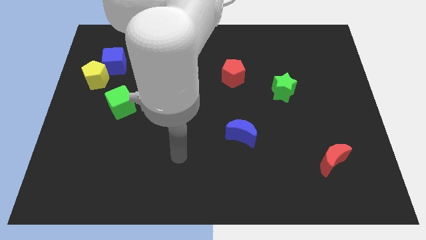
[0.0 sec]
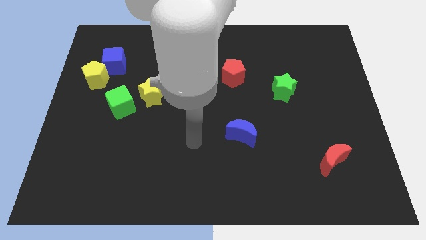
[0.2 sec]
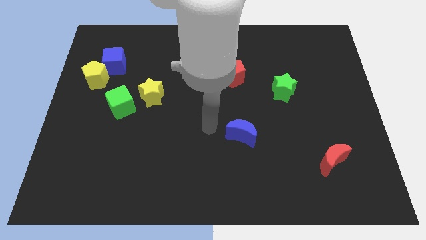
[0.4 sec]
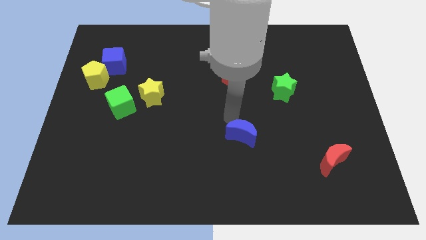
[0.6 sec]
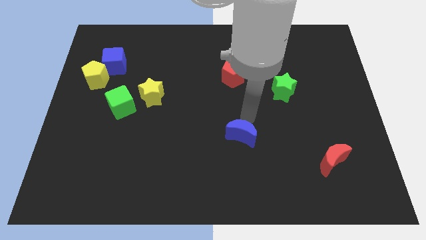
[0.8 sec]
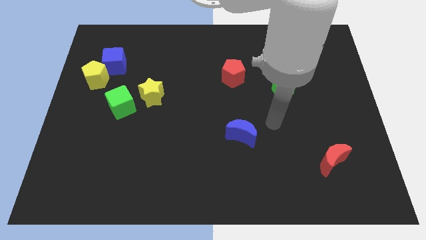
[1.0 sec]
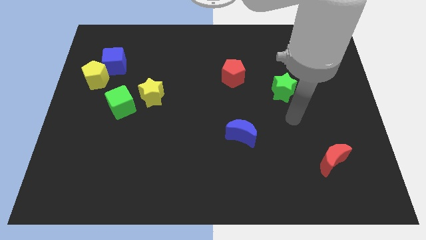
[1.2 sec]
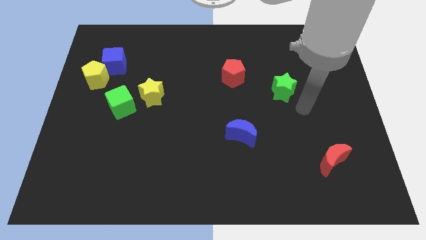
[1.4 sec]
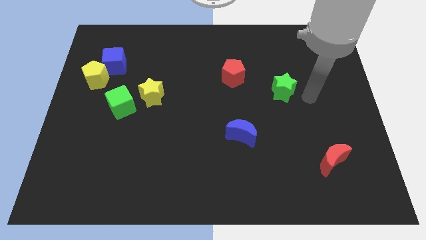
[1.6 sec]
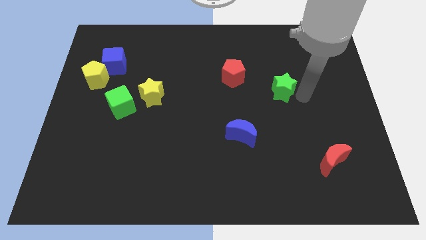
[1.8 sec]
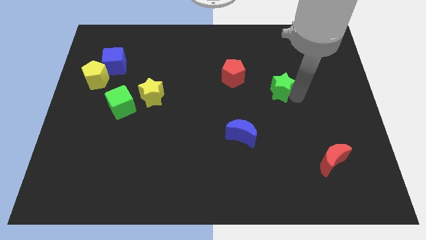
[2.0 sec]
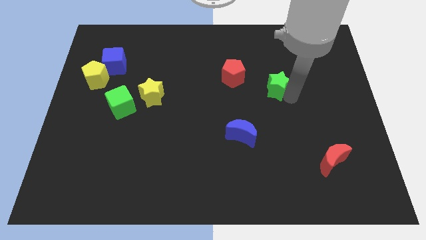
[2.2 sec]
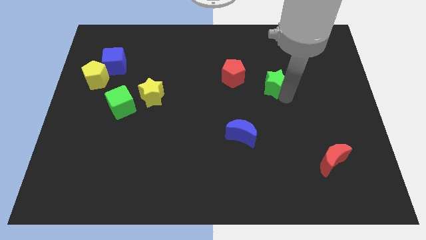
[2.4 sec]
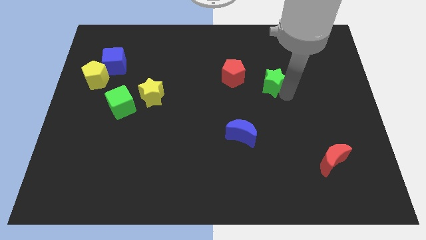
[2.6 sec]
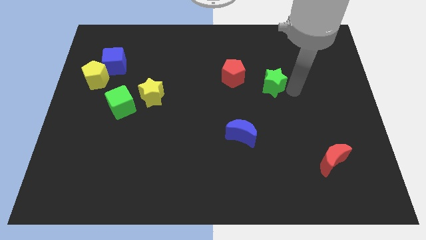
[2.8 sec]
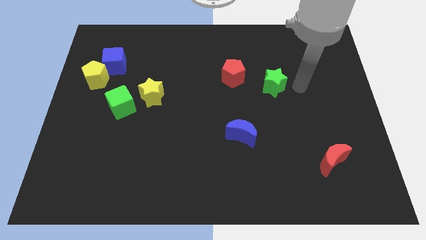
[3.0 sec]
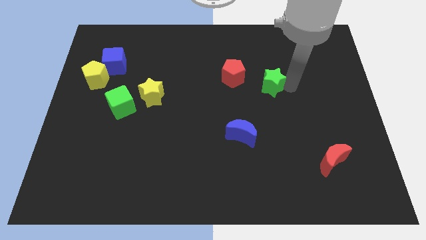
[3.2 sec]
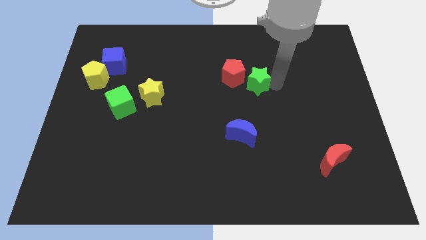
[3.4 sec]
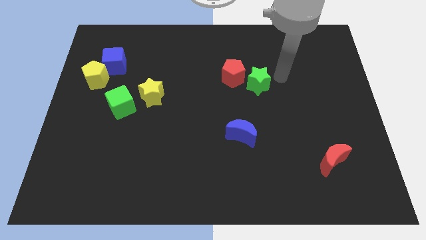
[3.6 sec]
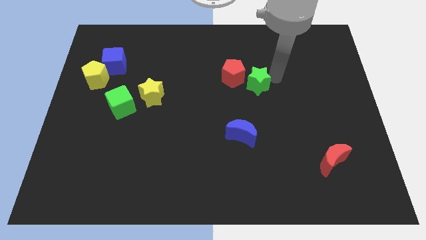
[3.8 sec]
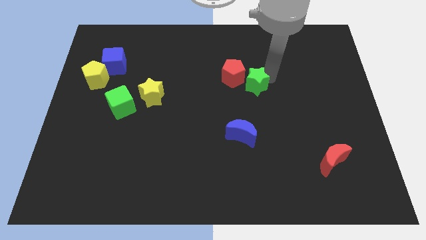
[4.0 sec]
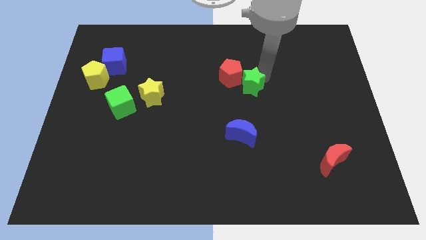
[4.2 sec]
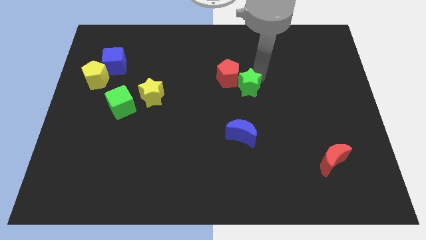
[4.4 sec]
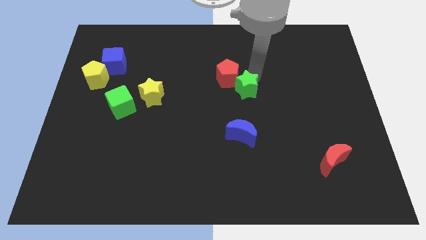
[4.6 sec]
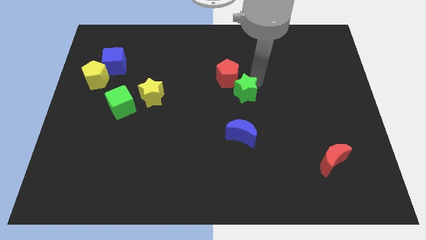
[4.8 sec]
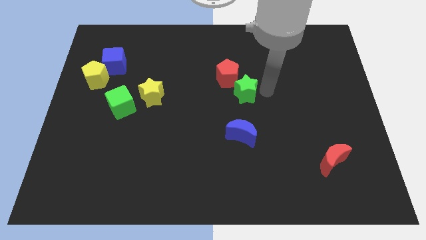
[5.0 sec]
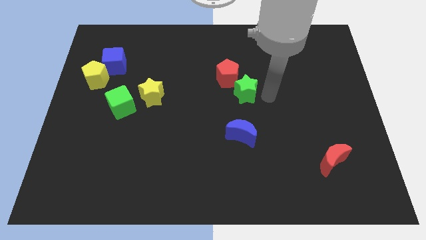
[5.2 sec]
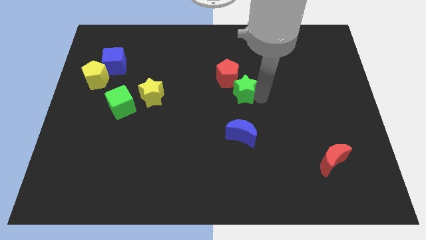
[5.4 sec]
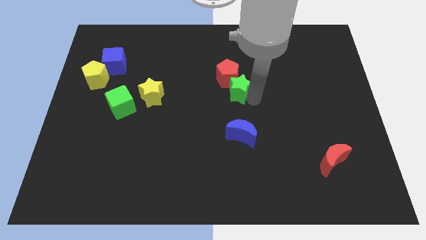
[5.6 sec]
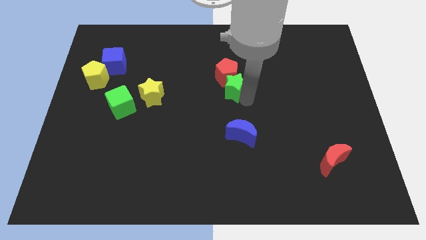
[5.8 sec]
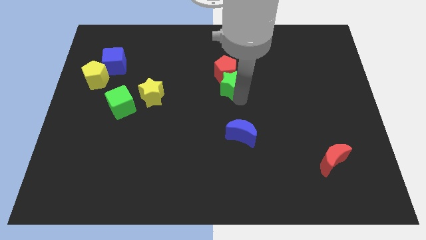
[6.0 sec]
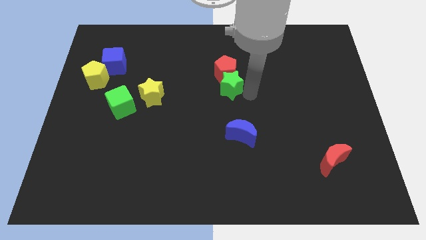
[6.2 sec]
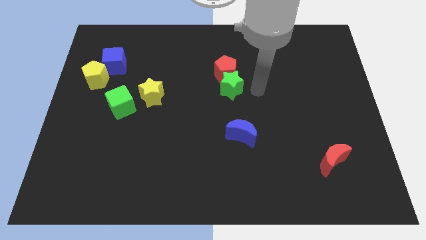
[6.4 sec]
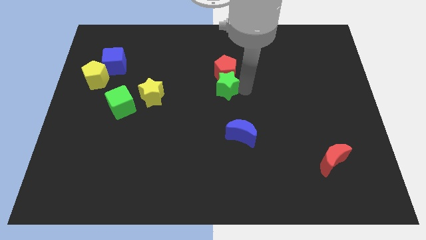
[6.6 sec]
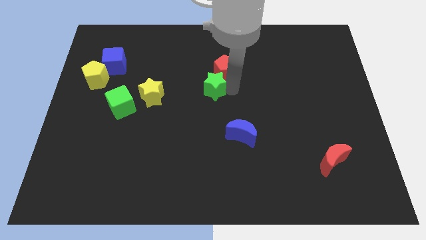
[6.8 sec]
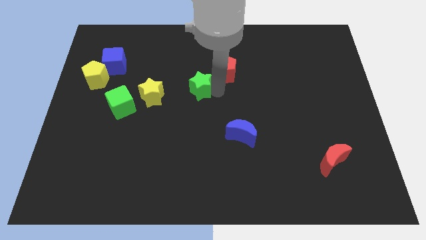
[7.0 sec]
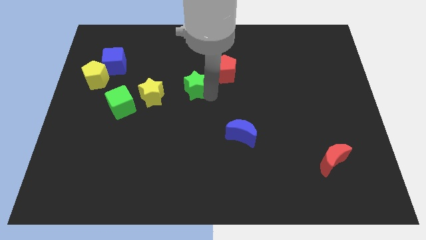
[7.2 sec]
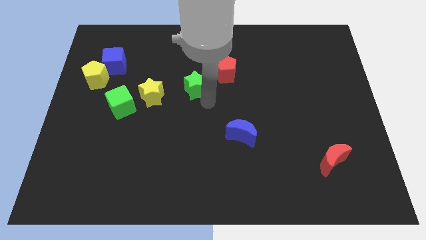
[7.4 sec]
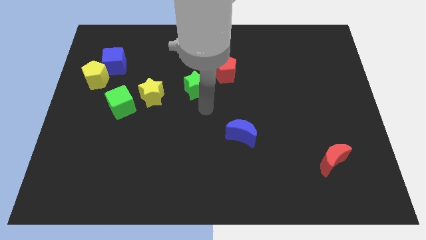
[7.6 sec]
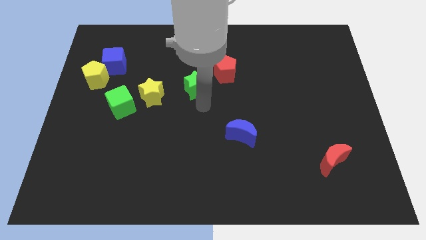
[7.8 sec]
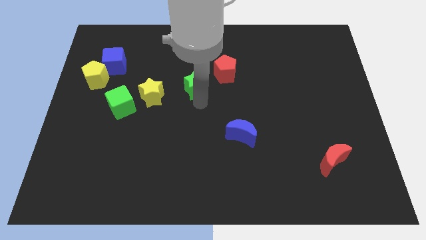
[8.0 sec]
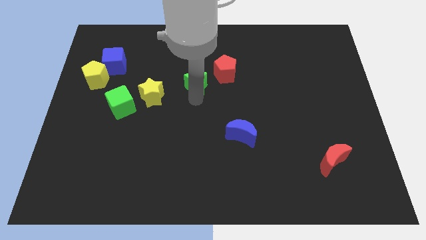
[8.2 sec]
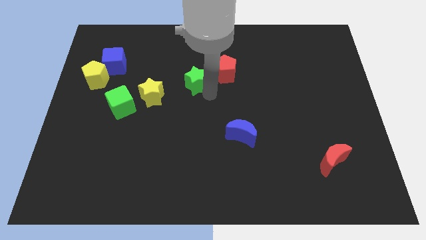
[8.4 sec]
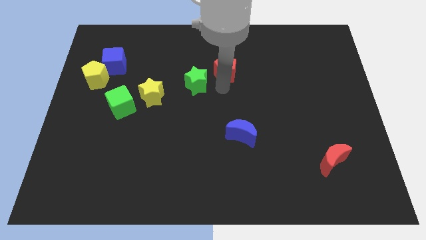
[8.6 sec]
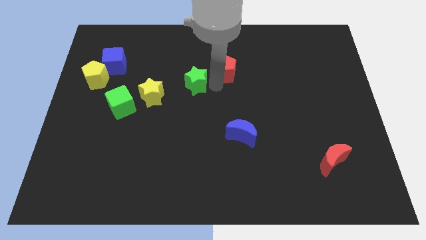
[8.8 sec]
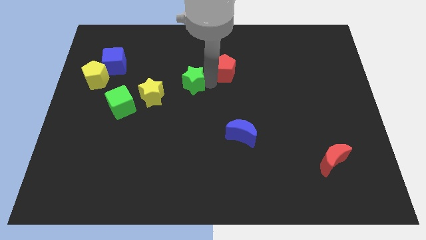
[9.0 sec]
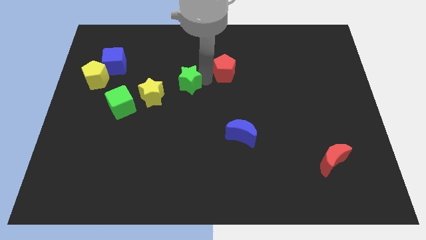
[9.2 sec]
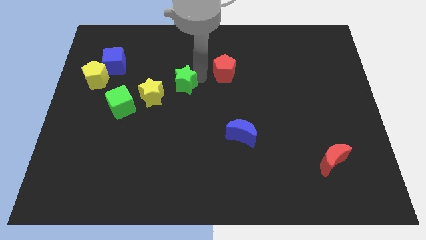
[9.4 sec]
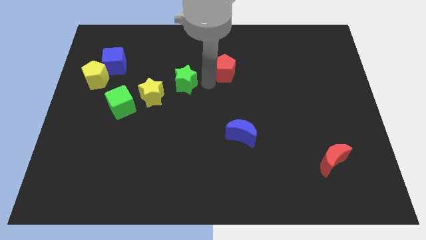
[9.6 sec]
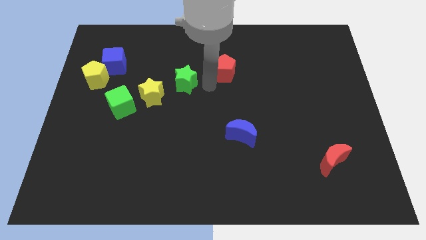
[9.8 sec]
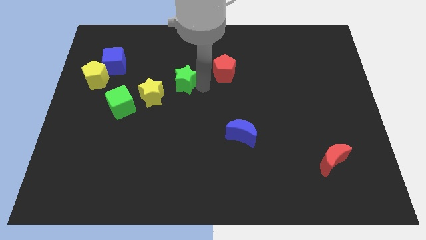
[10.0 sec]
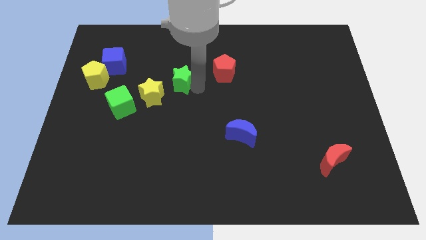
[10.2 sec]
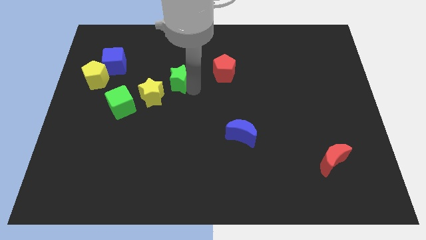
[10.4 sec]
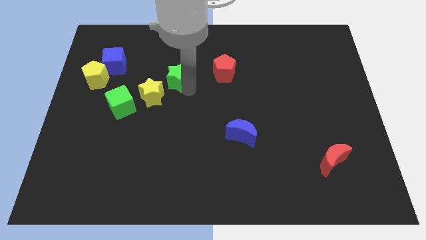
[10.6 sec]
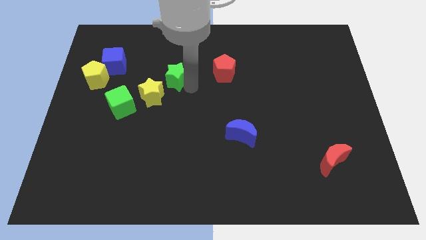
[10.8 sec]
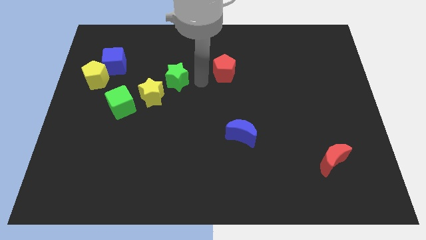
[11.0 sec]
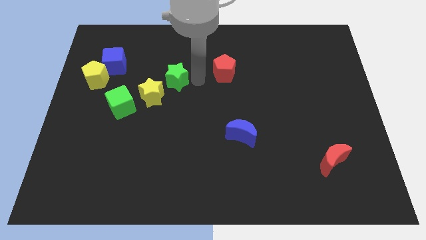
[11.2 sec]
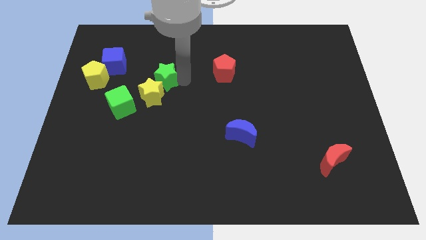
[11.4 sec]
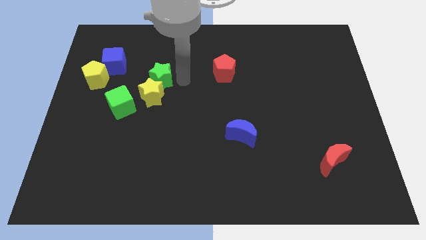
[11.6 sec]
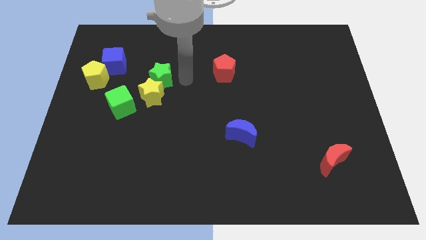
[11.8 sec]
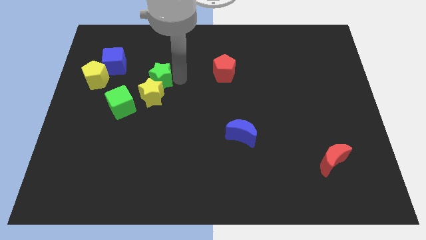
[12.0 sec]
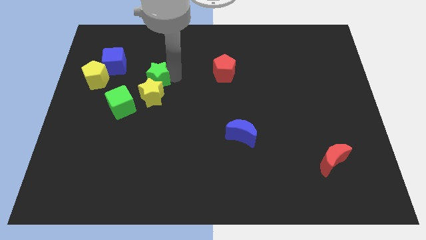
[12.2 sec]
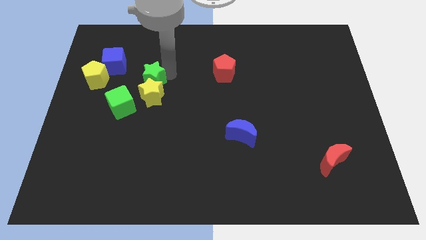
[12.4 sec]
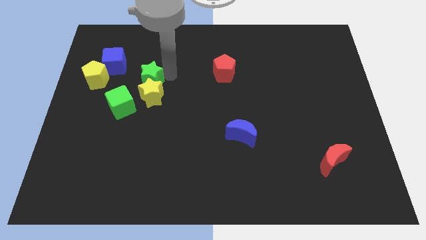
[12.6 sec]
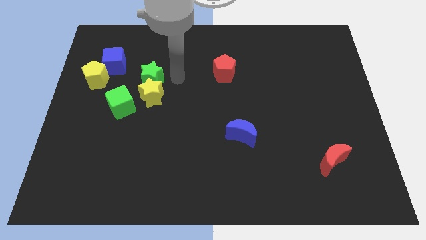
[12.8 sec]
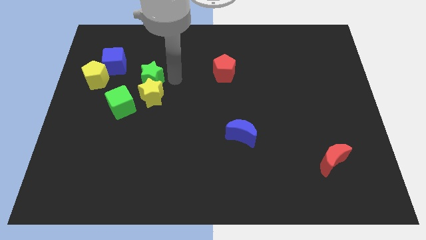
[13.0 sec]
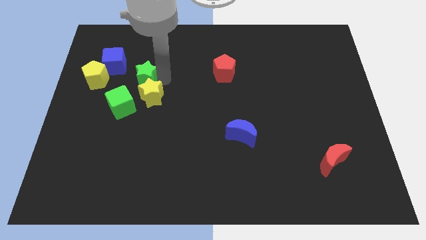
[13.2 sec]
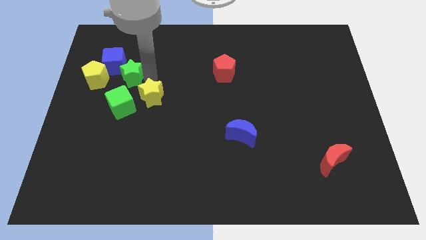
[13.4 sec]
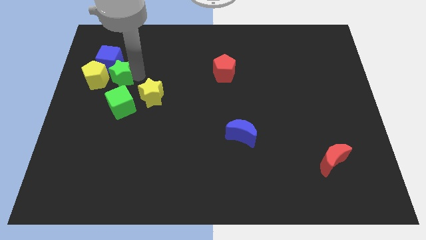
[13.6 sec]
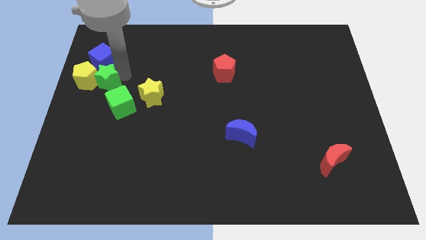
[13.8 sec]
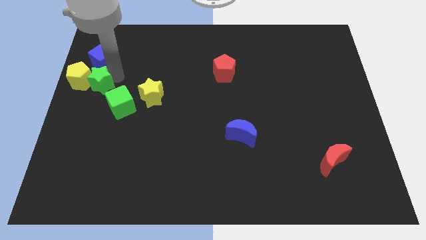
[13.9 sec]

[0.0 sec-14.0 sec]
put the green star to the center left
